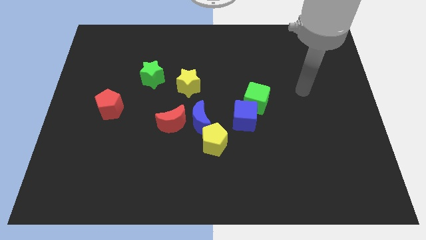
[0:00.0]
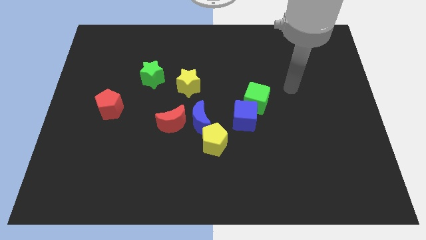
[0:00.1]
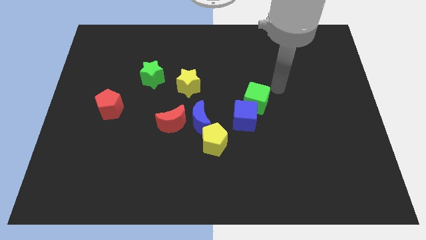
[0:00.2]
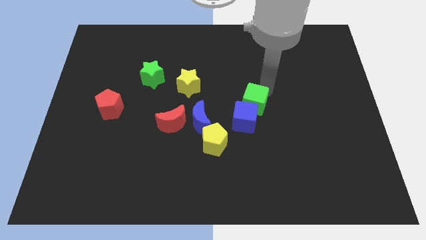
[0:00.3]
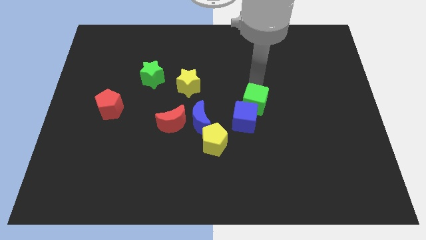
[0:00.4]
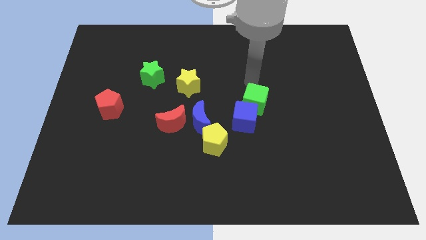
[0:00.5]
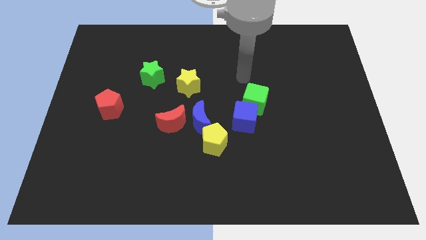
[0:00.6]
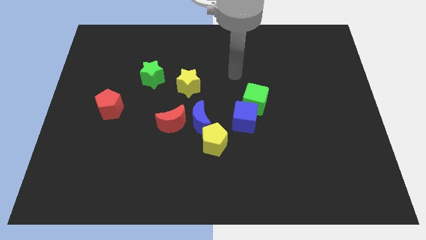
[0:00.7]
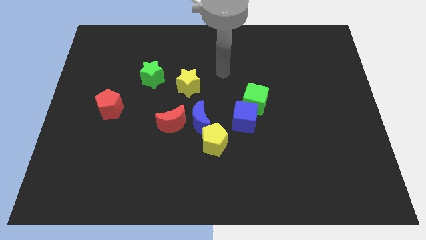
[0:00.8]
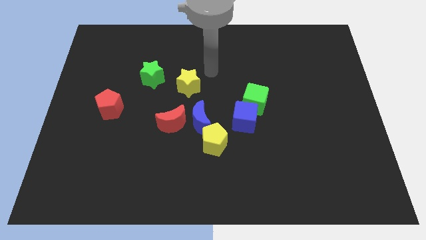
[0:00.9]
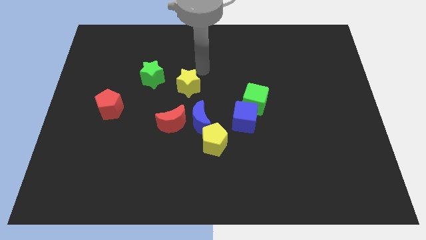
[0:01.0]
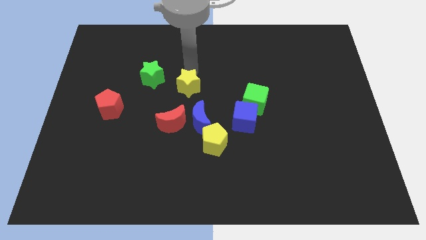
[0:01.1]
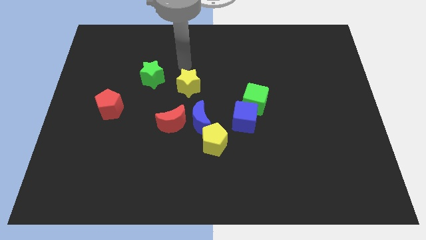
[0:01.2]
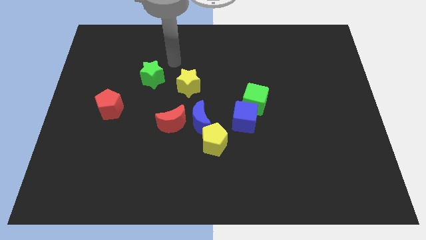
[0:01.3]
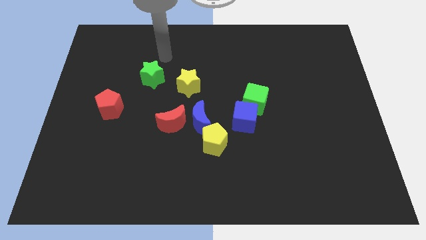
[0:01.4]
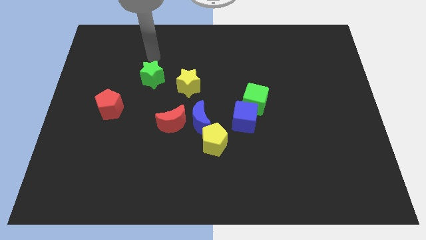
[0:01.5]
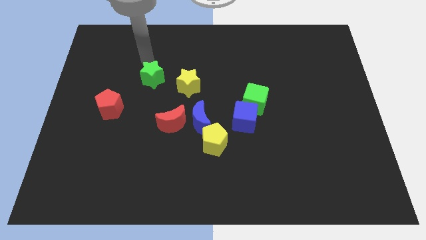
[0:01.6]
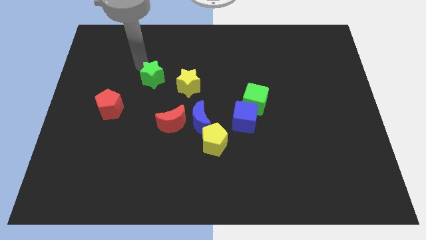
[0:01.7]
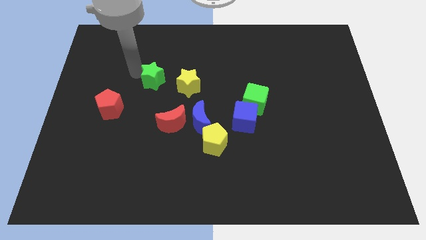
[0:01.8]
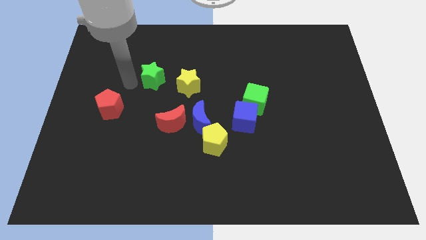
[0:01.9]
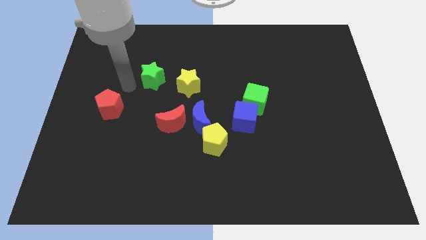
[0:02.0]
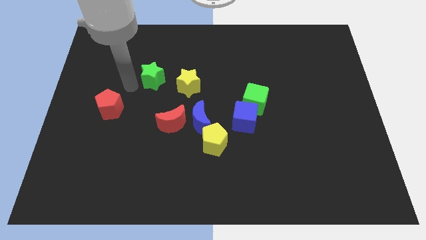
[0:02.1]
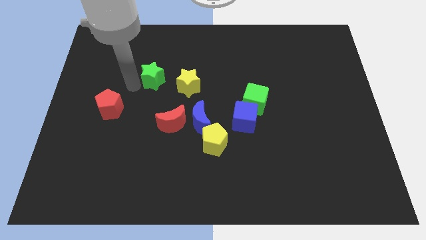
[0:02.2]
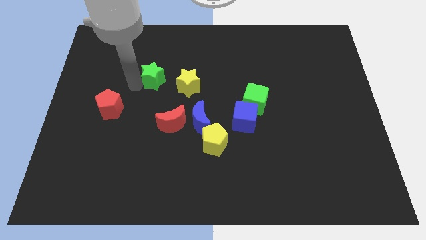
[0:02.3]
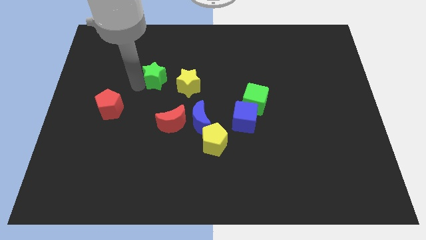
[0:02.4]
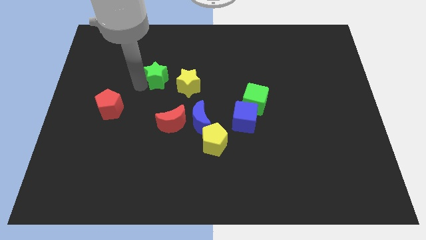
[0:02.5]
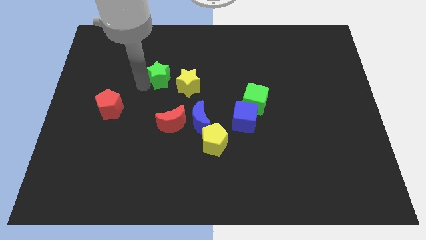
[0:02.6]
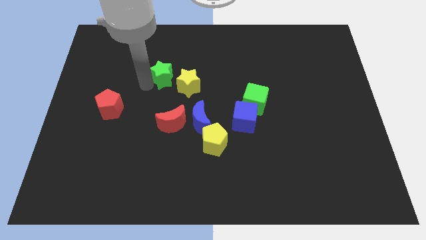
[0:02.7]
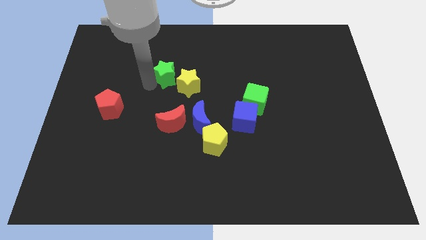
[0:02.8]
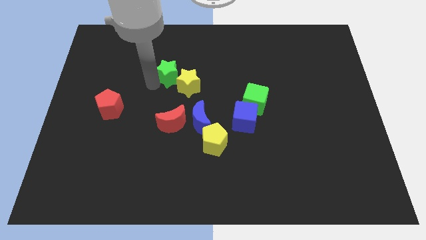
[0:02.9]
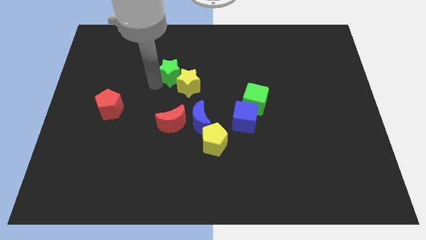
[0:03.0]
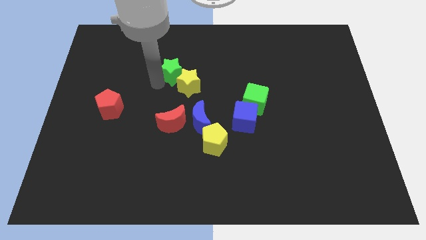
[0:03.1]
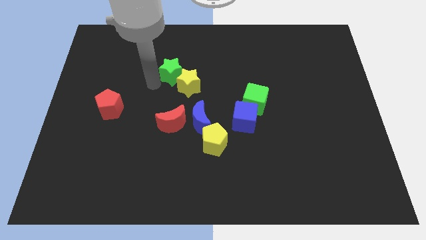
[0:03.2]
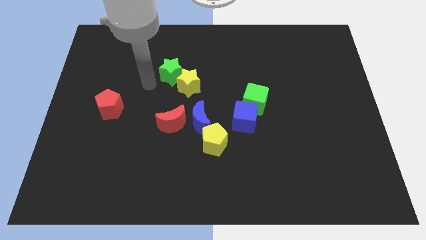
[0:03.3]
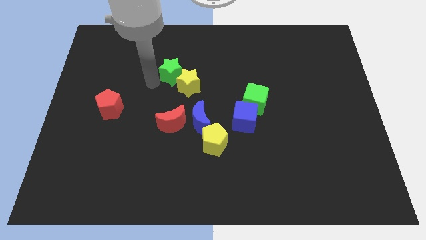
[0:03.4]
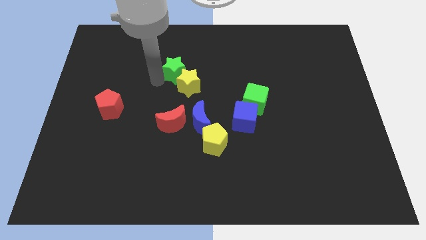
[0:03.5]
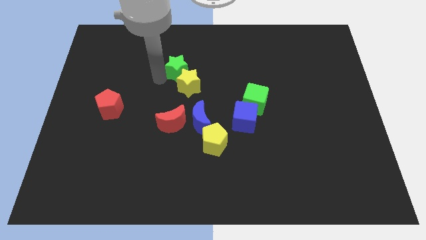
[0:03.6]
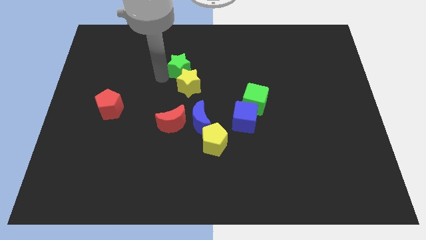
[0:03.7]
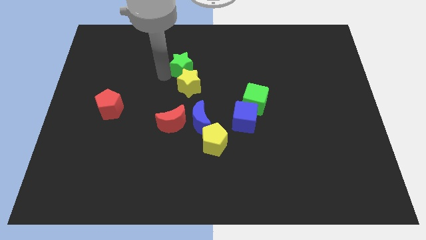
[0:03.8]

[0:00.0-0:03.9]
push the green star to the right a bit

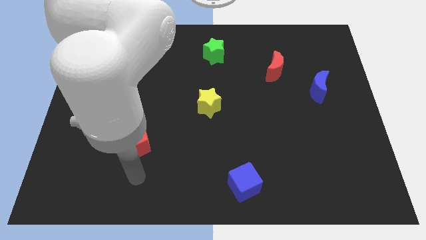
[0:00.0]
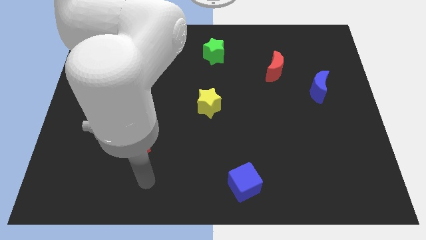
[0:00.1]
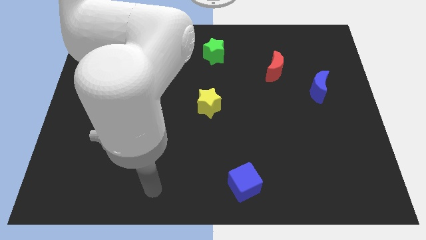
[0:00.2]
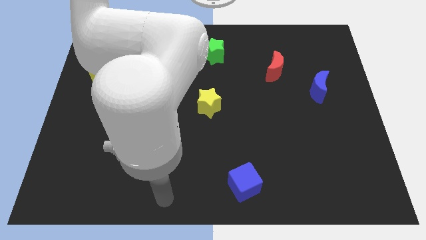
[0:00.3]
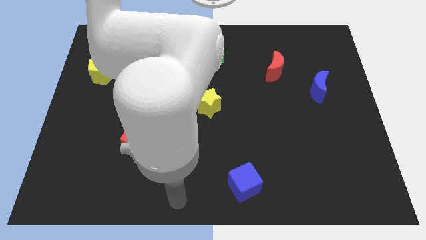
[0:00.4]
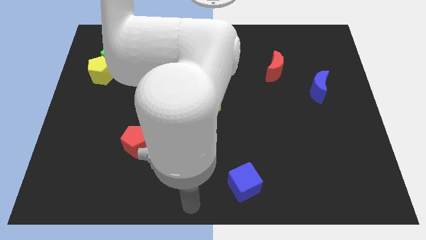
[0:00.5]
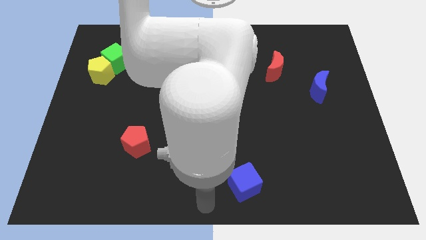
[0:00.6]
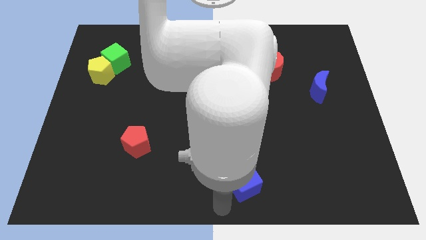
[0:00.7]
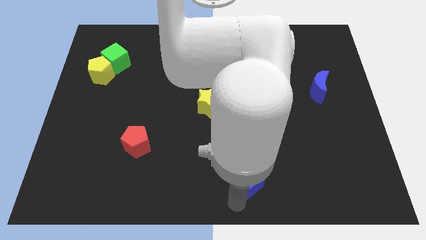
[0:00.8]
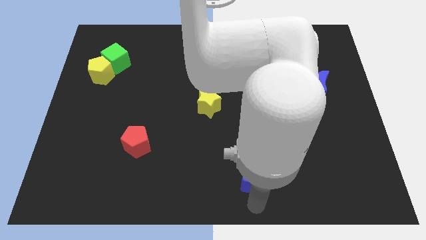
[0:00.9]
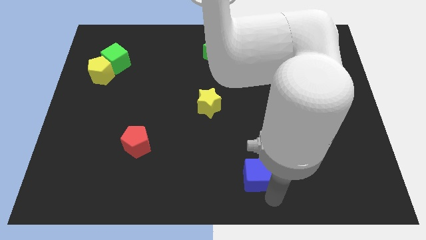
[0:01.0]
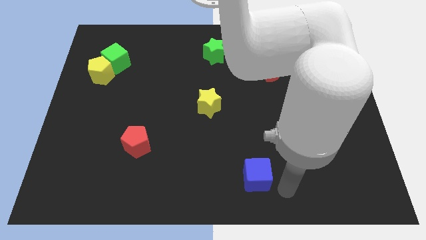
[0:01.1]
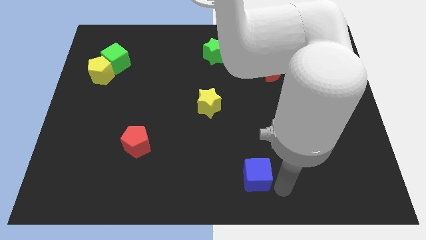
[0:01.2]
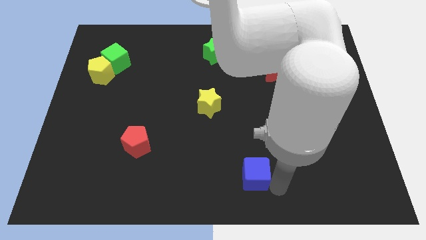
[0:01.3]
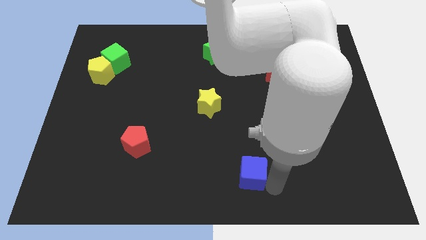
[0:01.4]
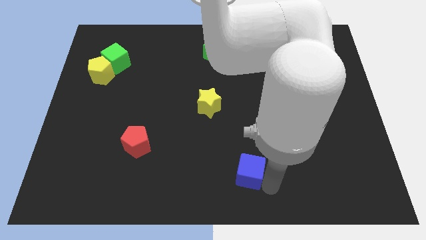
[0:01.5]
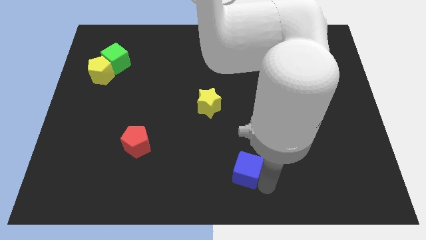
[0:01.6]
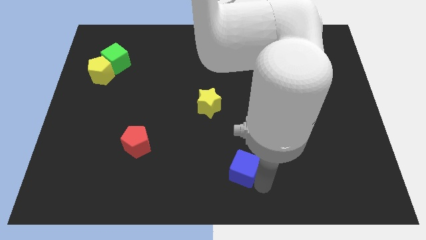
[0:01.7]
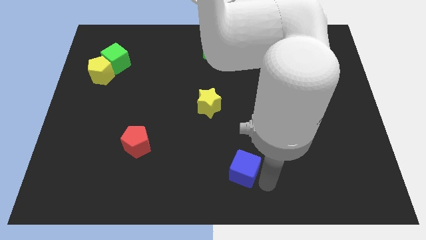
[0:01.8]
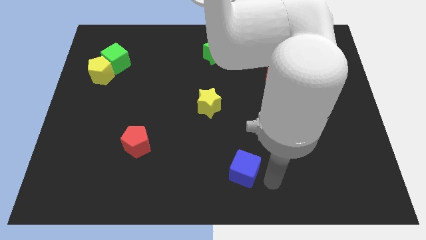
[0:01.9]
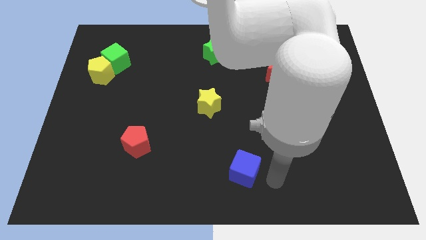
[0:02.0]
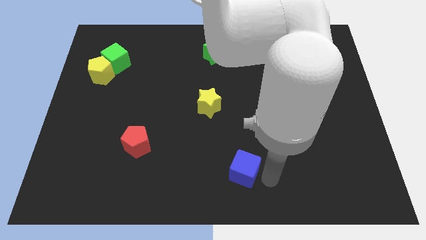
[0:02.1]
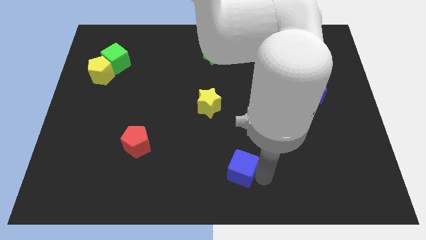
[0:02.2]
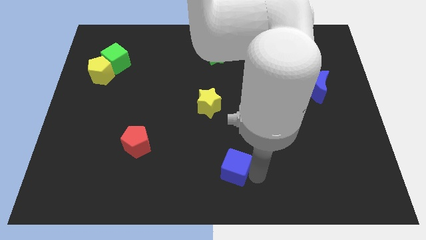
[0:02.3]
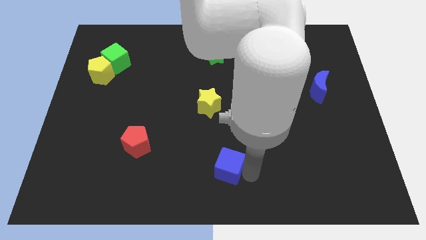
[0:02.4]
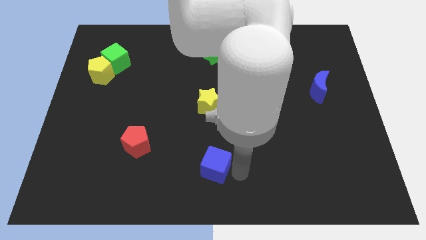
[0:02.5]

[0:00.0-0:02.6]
push the blue cube a little bit diagonally up and left

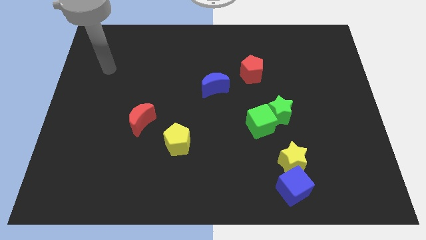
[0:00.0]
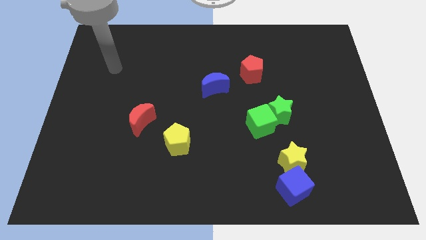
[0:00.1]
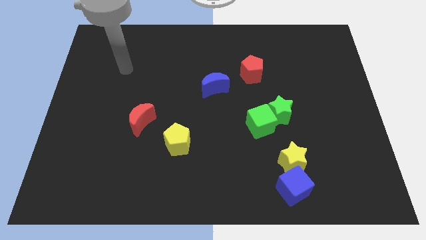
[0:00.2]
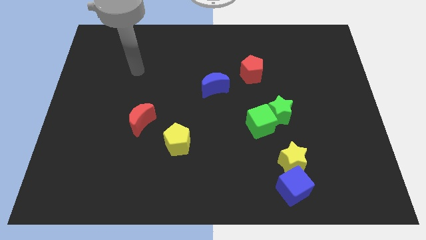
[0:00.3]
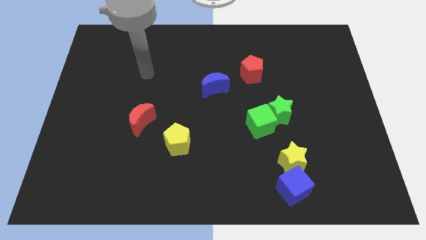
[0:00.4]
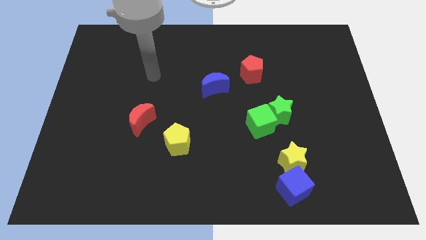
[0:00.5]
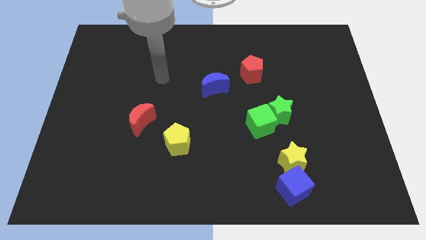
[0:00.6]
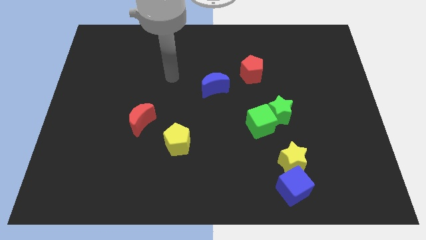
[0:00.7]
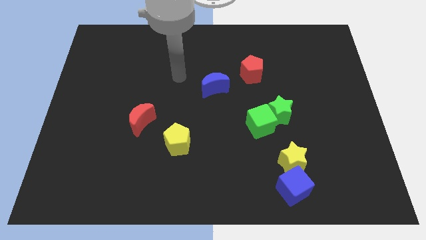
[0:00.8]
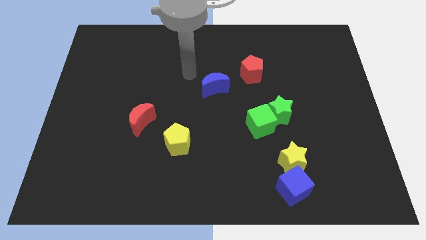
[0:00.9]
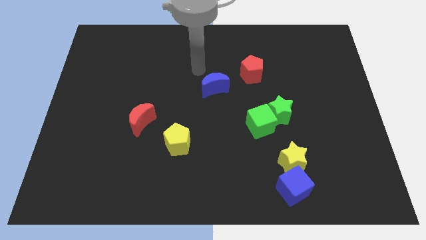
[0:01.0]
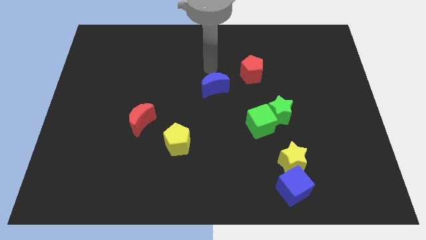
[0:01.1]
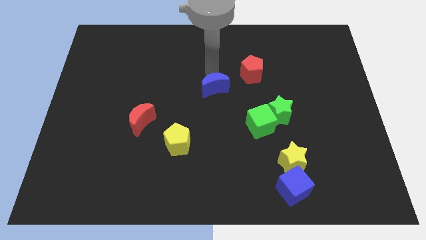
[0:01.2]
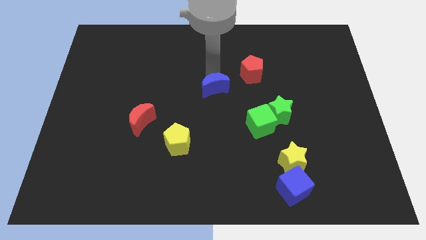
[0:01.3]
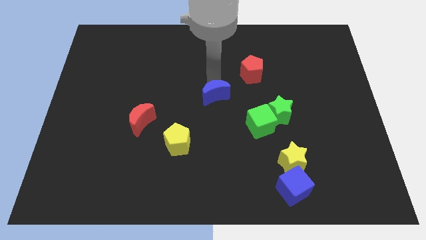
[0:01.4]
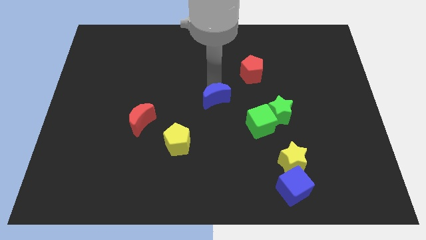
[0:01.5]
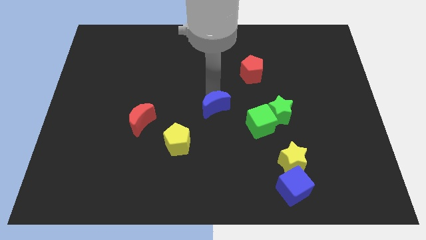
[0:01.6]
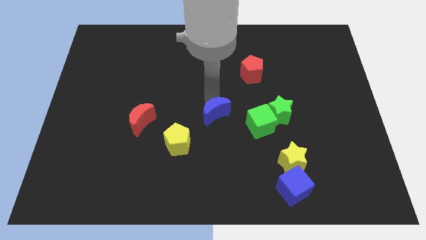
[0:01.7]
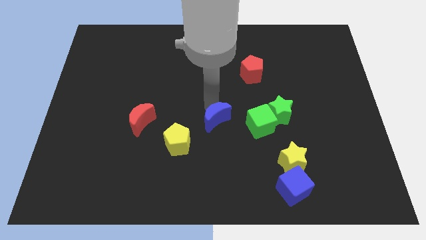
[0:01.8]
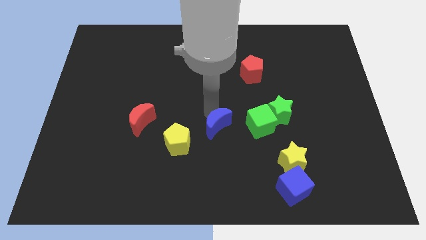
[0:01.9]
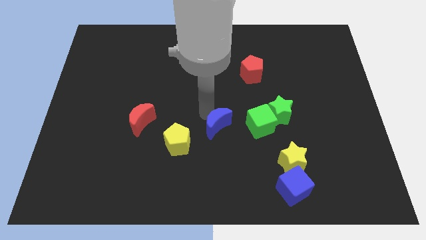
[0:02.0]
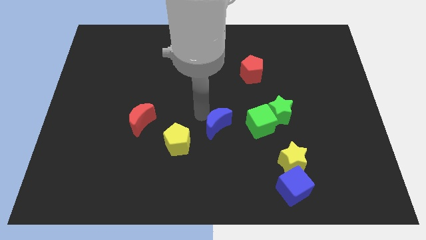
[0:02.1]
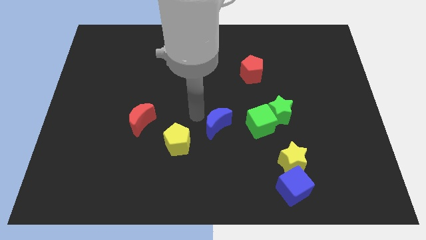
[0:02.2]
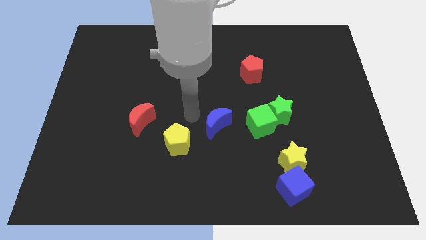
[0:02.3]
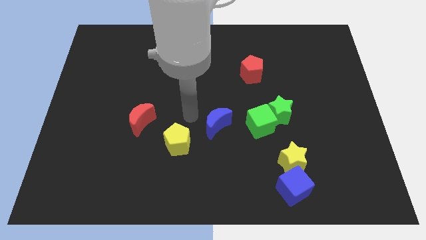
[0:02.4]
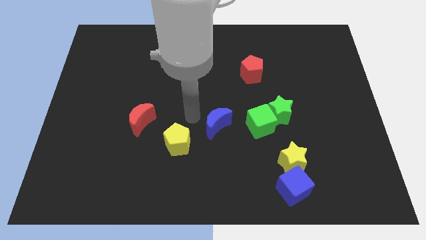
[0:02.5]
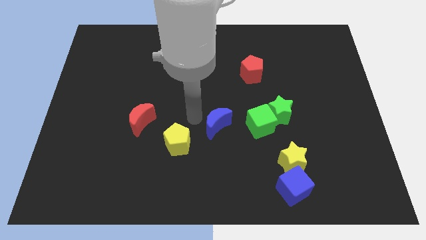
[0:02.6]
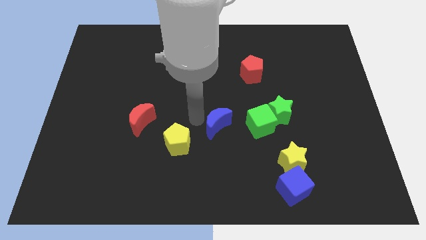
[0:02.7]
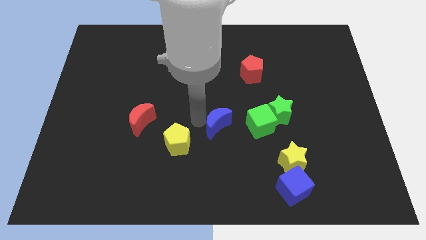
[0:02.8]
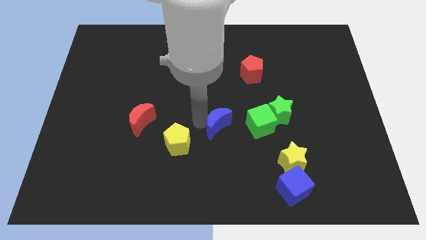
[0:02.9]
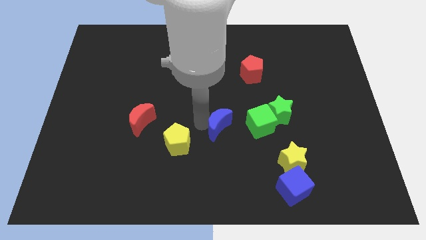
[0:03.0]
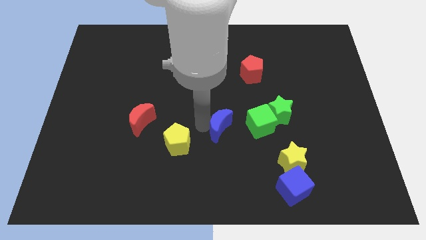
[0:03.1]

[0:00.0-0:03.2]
push the blue moon a little downwards and to the right
